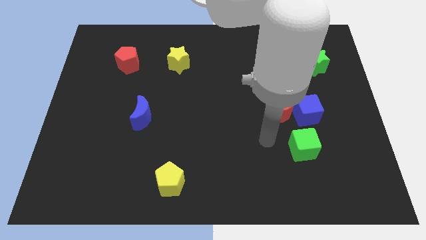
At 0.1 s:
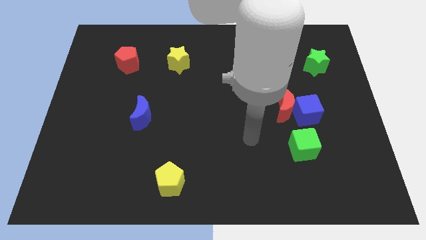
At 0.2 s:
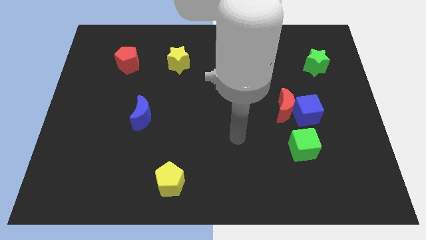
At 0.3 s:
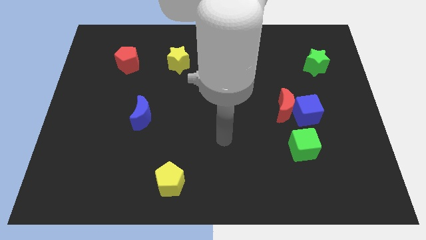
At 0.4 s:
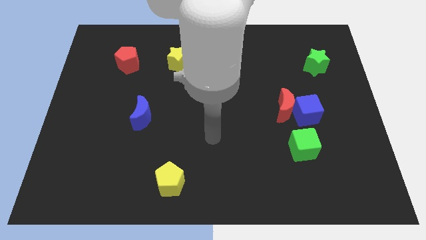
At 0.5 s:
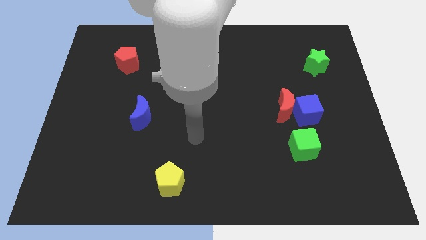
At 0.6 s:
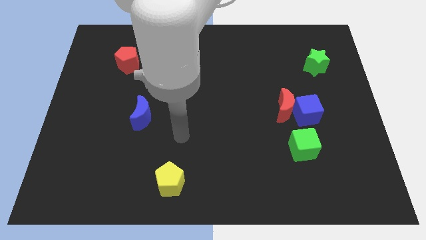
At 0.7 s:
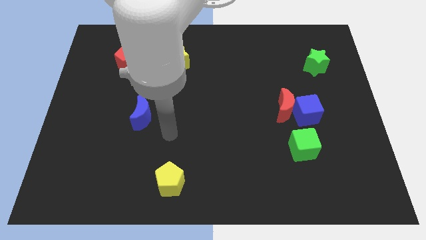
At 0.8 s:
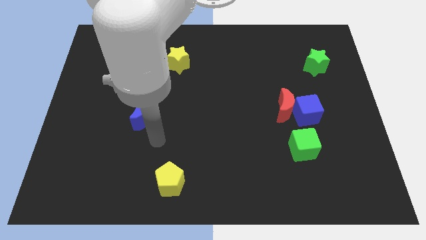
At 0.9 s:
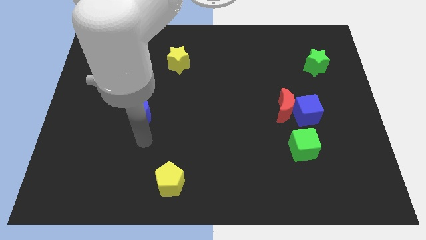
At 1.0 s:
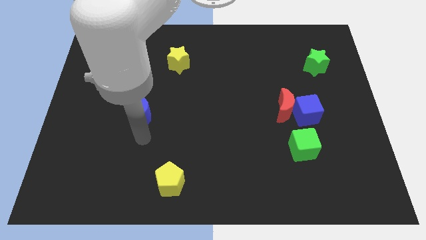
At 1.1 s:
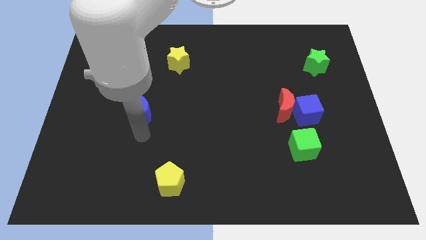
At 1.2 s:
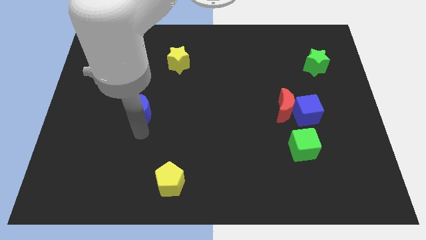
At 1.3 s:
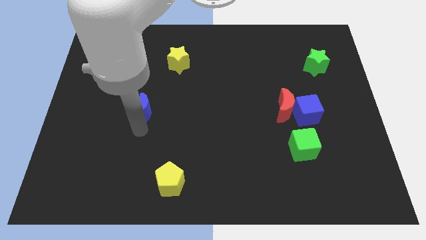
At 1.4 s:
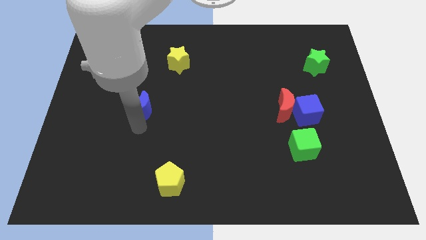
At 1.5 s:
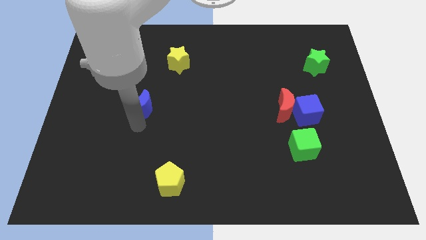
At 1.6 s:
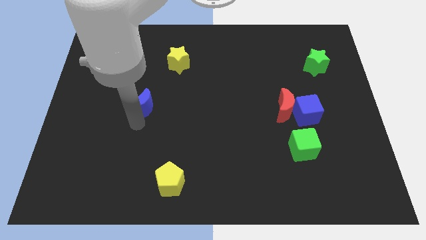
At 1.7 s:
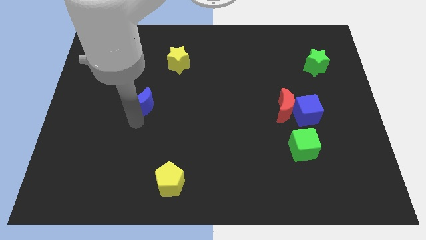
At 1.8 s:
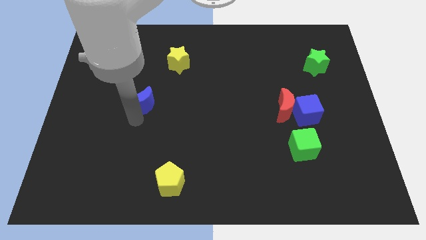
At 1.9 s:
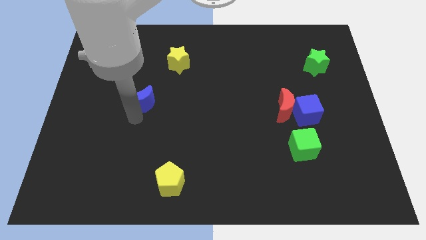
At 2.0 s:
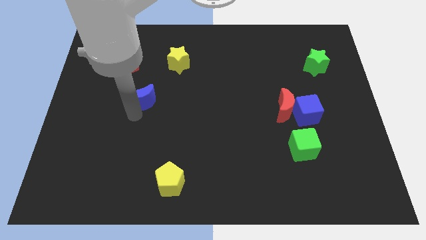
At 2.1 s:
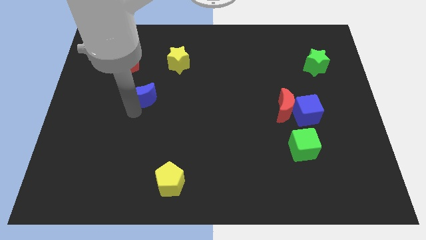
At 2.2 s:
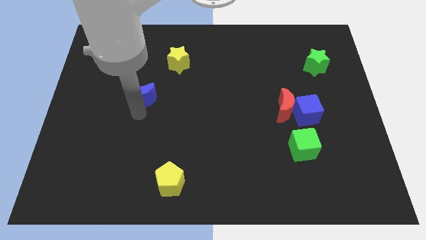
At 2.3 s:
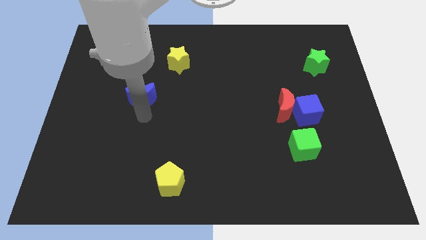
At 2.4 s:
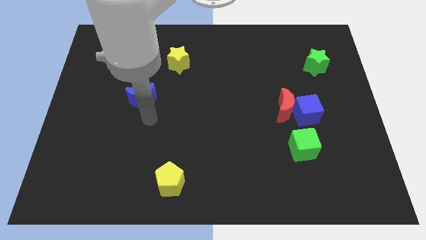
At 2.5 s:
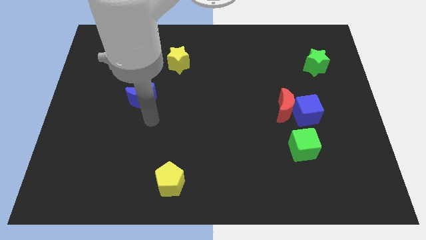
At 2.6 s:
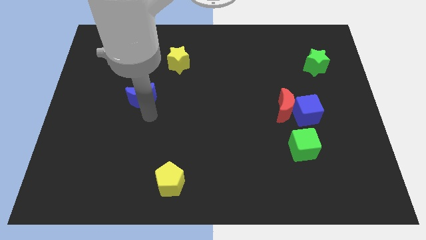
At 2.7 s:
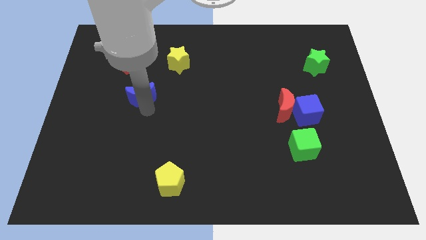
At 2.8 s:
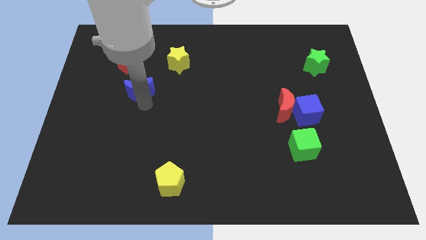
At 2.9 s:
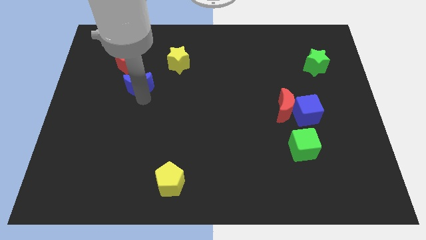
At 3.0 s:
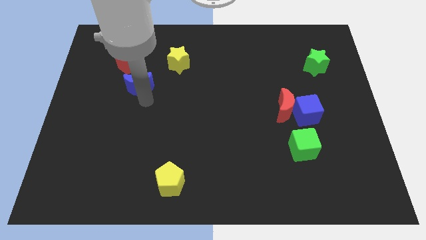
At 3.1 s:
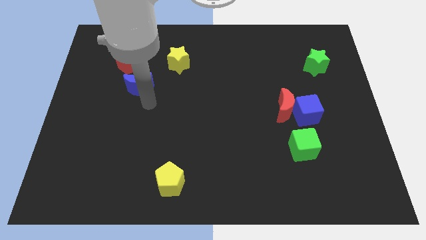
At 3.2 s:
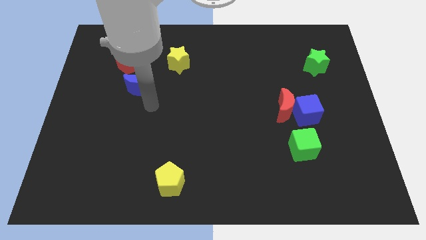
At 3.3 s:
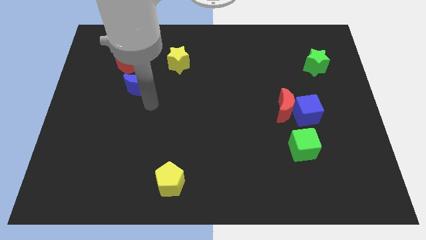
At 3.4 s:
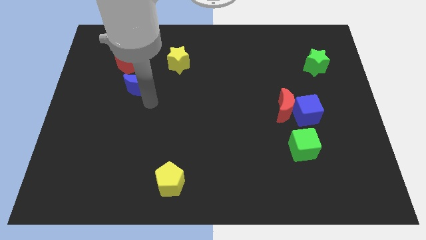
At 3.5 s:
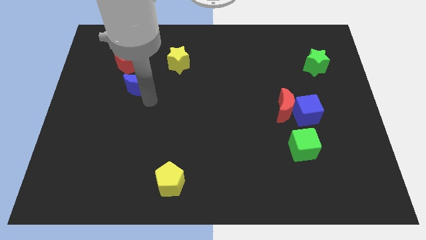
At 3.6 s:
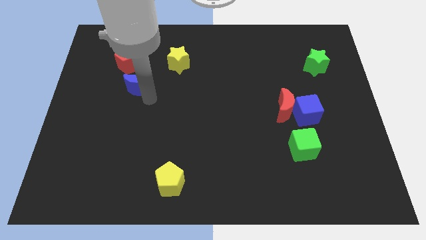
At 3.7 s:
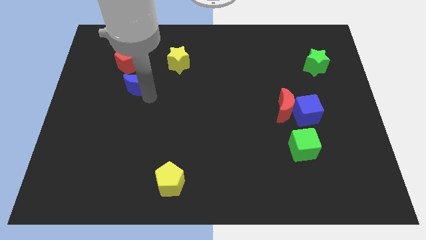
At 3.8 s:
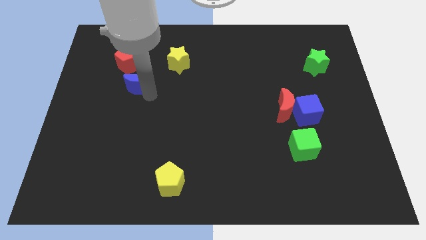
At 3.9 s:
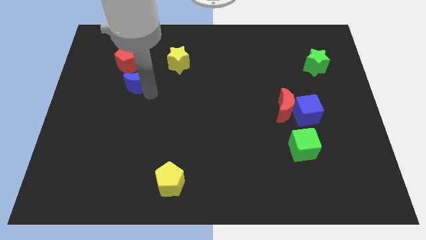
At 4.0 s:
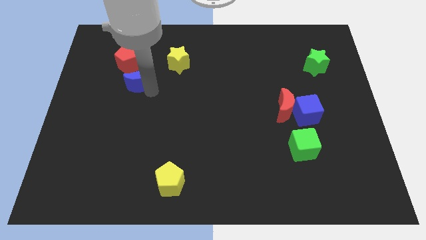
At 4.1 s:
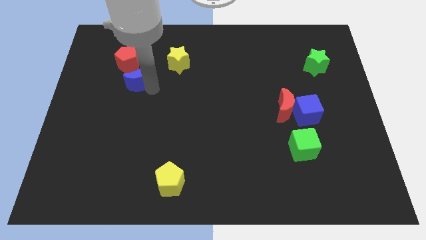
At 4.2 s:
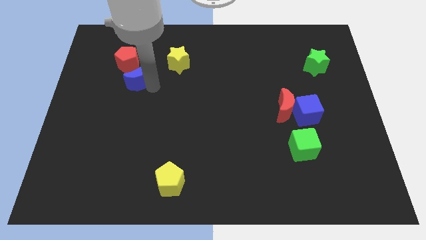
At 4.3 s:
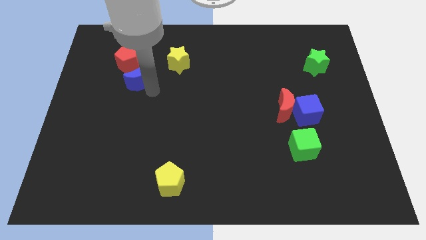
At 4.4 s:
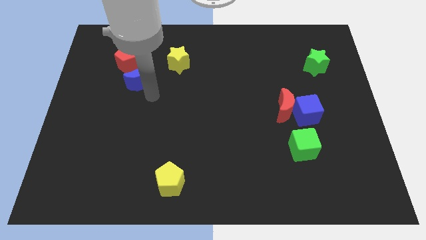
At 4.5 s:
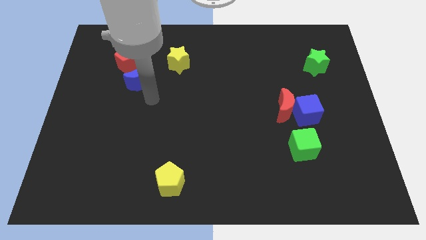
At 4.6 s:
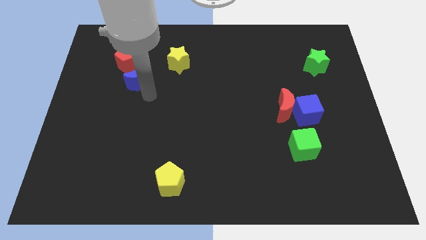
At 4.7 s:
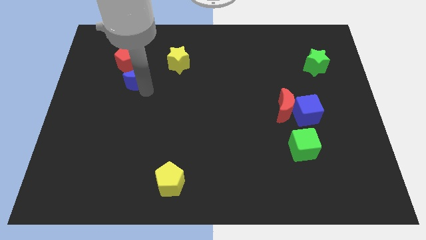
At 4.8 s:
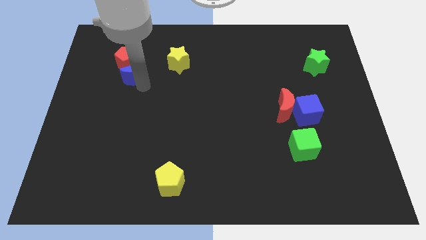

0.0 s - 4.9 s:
push the blue moon close to the red pentagon

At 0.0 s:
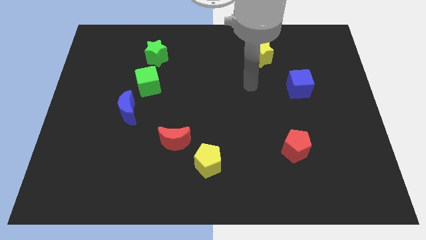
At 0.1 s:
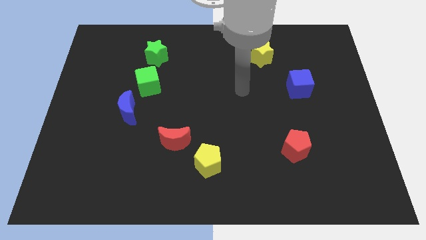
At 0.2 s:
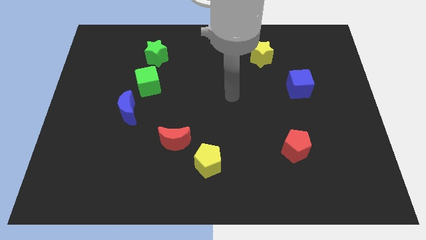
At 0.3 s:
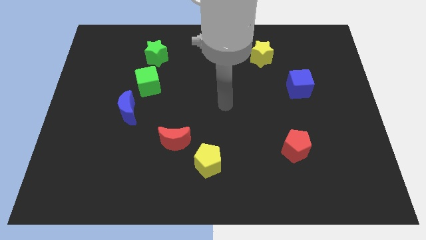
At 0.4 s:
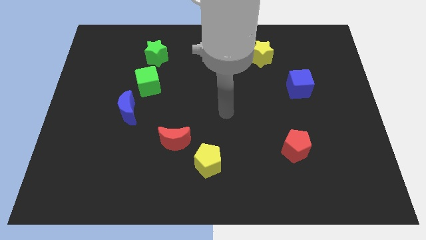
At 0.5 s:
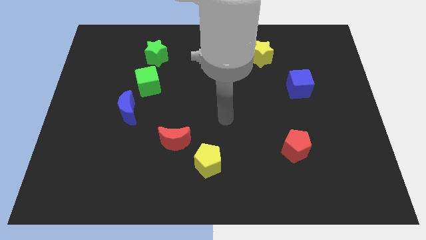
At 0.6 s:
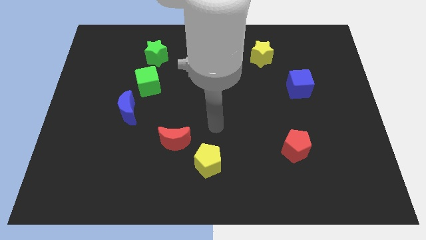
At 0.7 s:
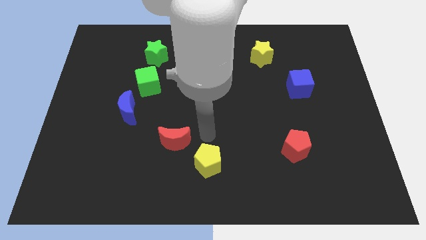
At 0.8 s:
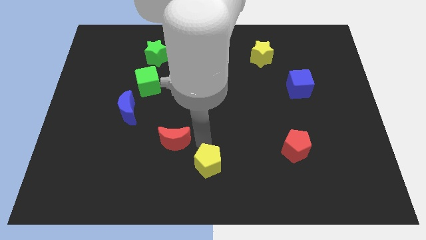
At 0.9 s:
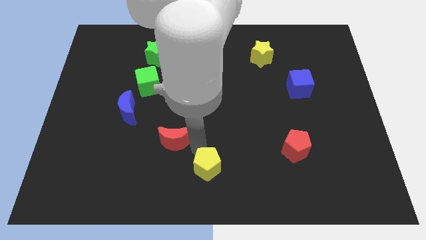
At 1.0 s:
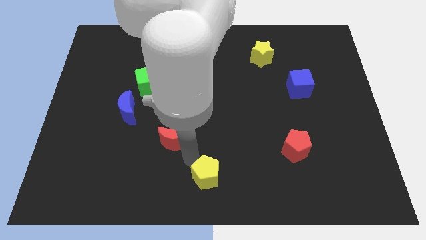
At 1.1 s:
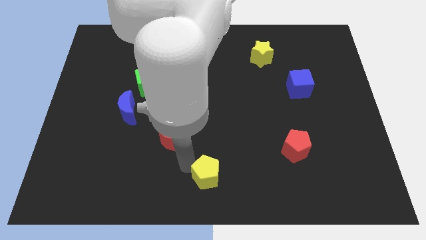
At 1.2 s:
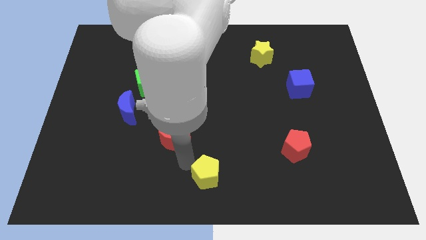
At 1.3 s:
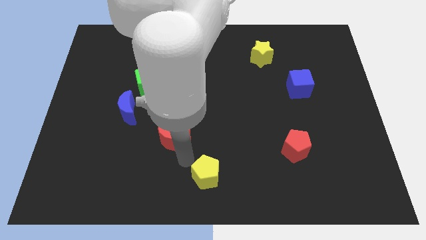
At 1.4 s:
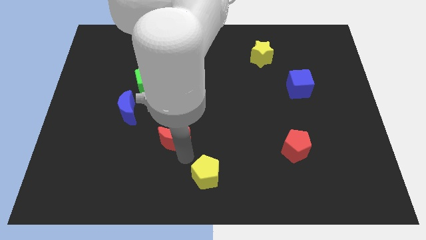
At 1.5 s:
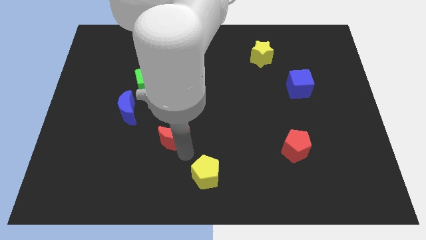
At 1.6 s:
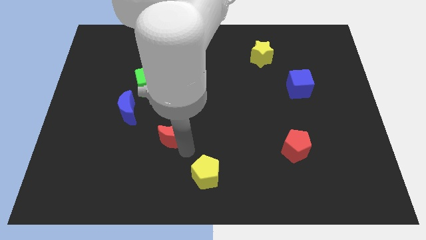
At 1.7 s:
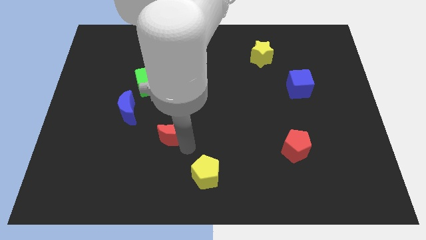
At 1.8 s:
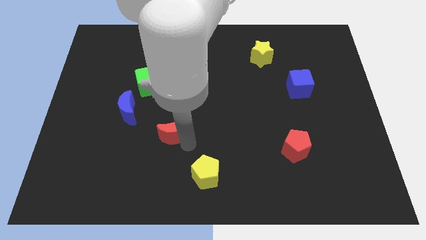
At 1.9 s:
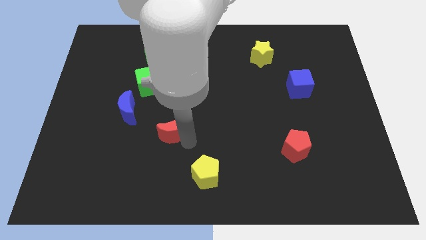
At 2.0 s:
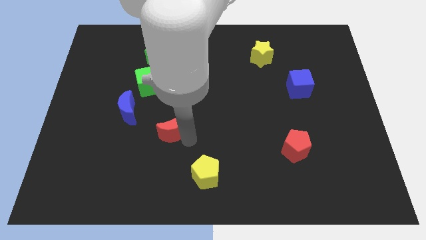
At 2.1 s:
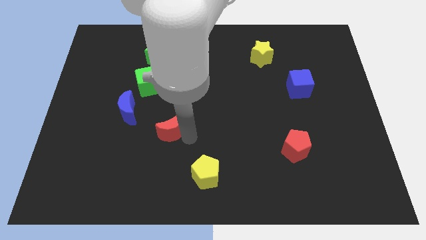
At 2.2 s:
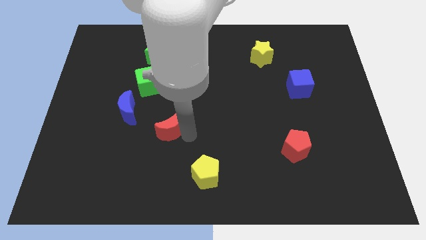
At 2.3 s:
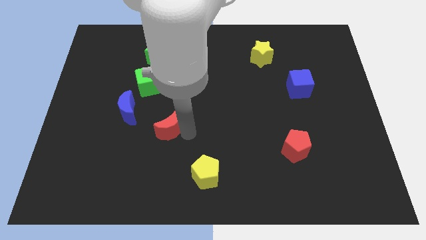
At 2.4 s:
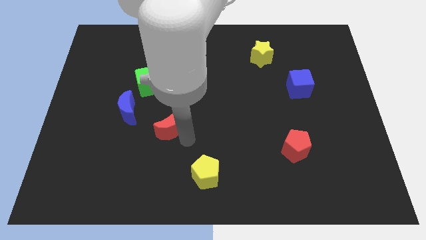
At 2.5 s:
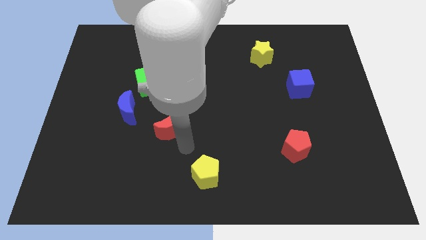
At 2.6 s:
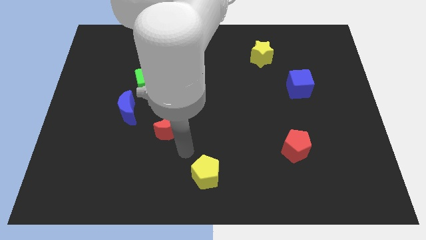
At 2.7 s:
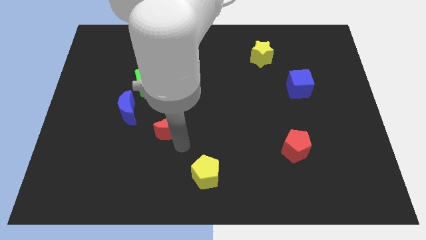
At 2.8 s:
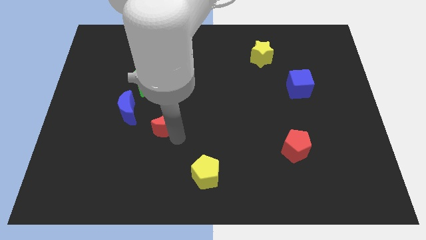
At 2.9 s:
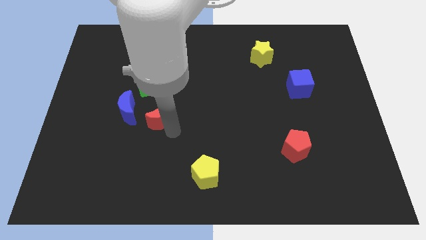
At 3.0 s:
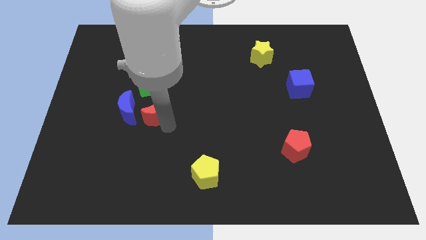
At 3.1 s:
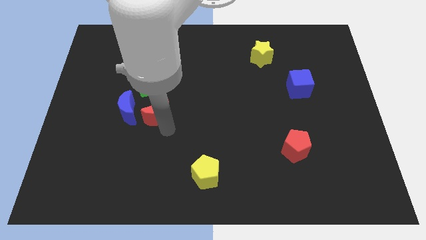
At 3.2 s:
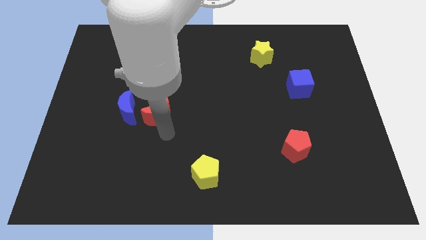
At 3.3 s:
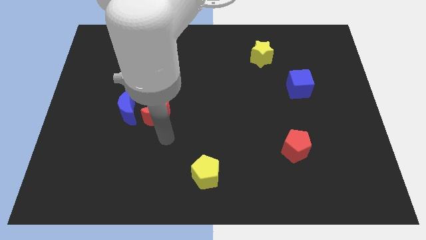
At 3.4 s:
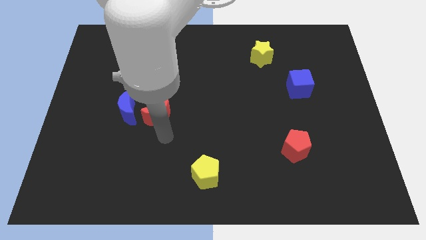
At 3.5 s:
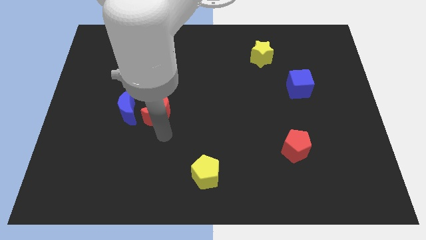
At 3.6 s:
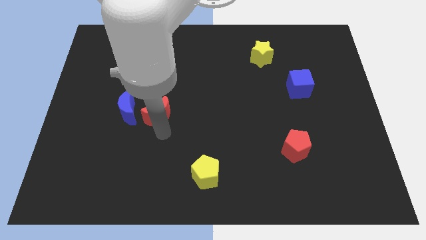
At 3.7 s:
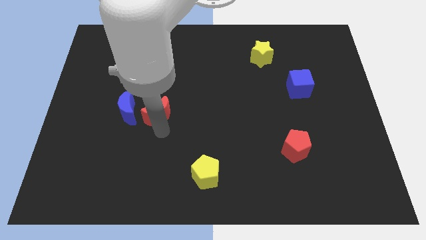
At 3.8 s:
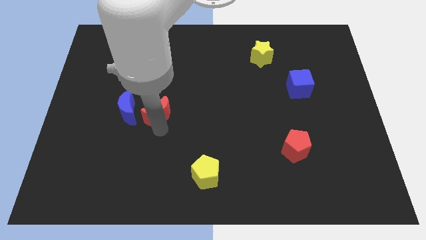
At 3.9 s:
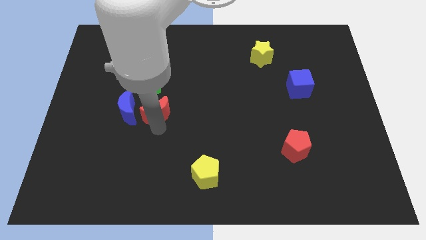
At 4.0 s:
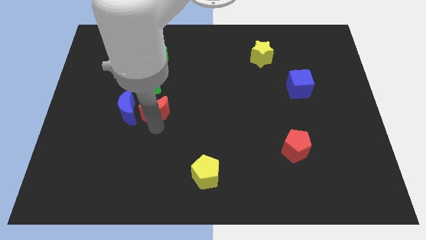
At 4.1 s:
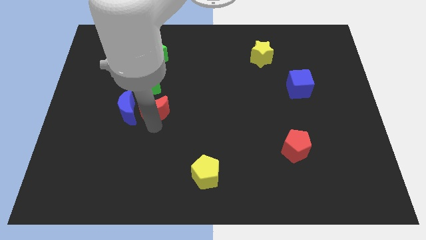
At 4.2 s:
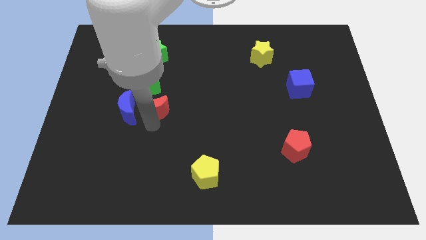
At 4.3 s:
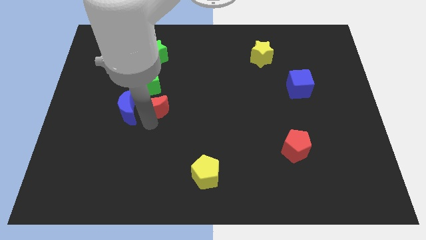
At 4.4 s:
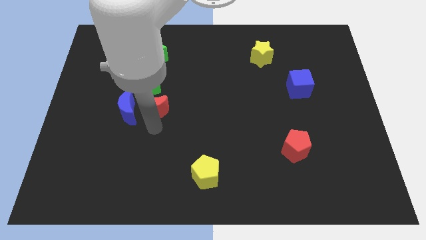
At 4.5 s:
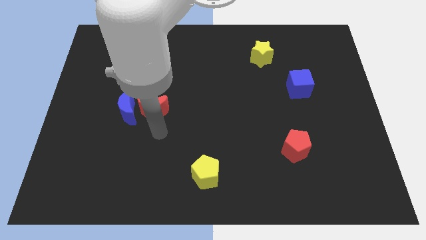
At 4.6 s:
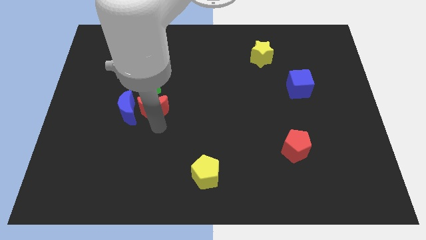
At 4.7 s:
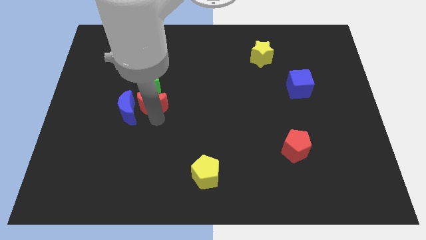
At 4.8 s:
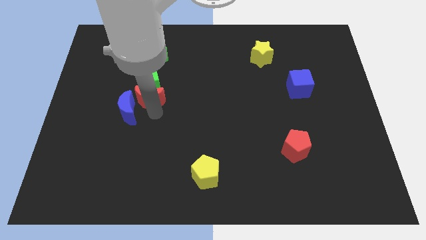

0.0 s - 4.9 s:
push the red moon next to the green cube
